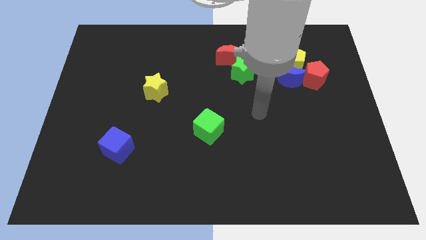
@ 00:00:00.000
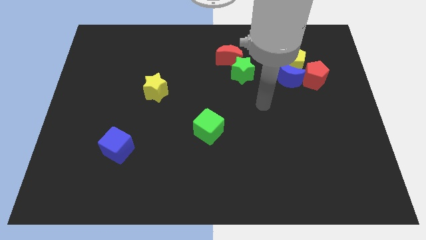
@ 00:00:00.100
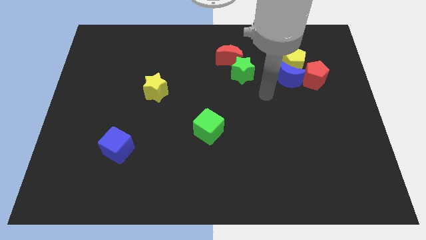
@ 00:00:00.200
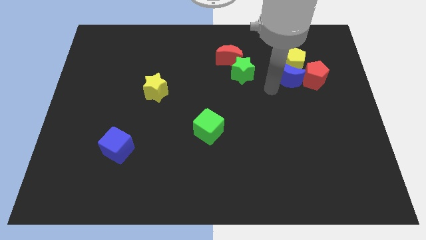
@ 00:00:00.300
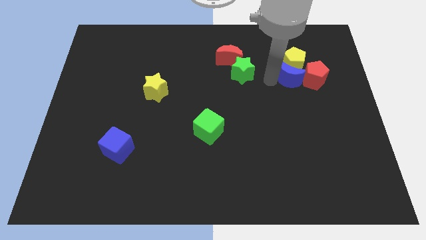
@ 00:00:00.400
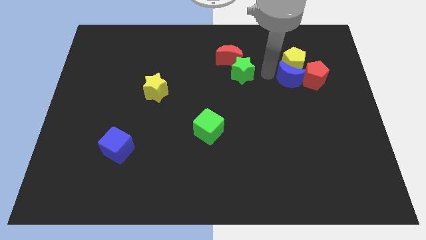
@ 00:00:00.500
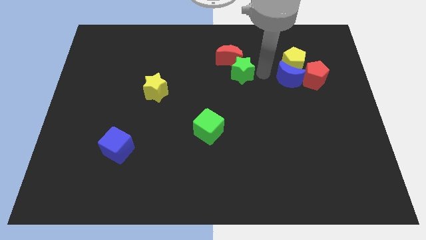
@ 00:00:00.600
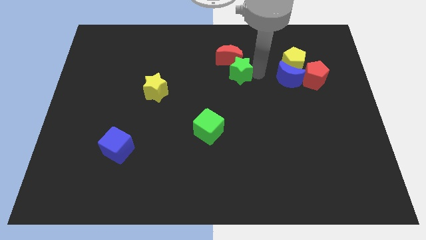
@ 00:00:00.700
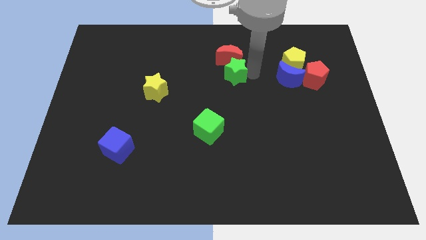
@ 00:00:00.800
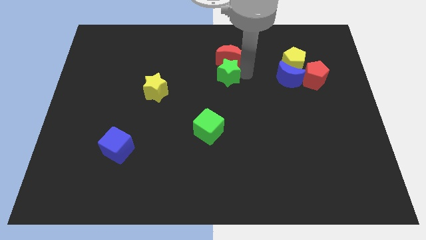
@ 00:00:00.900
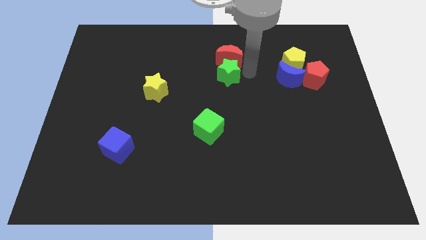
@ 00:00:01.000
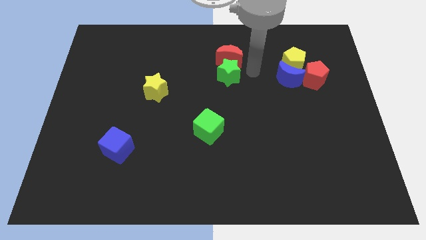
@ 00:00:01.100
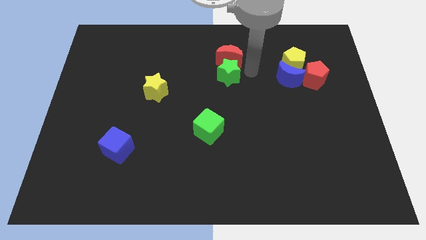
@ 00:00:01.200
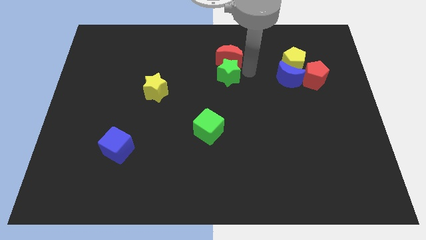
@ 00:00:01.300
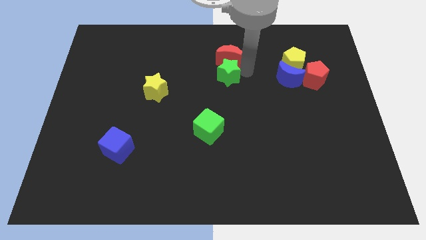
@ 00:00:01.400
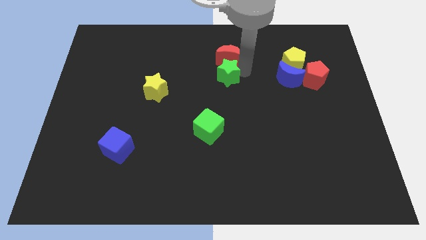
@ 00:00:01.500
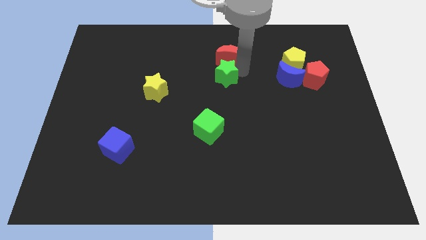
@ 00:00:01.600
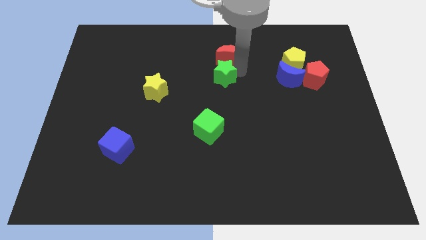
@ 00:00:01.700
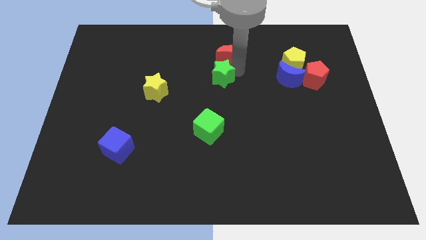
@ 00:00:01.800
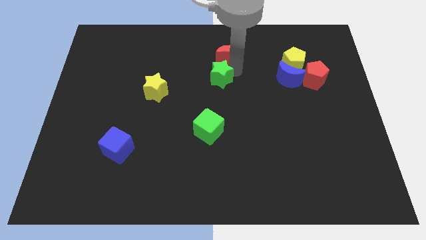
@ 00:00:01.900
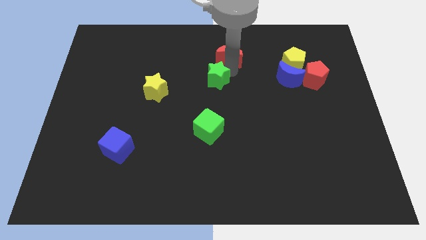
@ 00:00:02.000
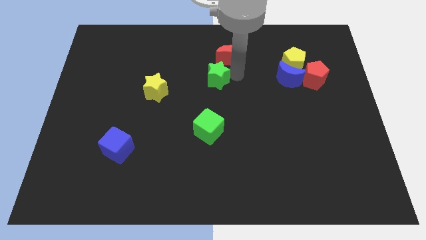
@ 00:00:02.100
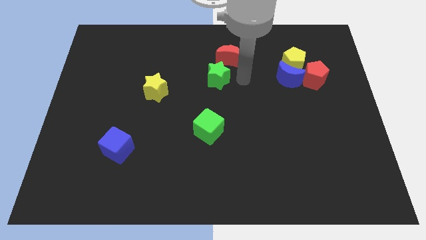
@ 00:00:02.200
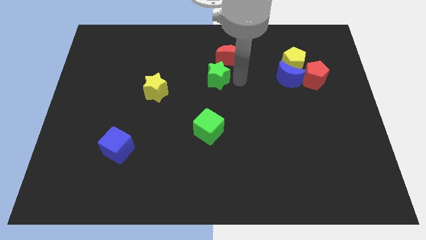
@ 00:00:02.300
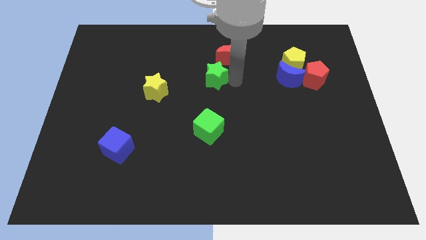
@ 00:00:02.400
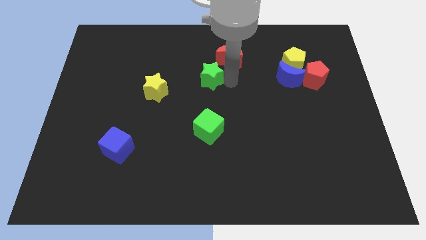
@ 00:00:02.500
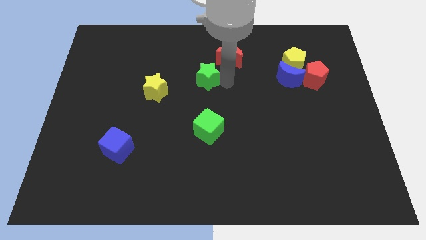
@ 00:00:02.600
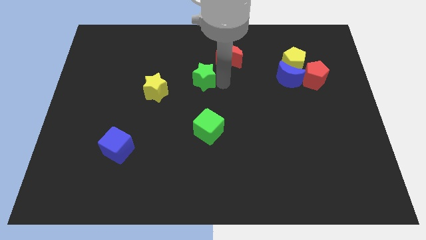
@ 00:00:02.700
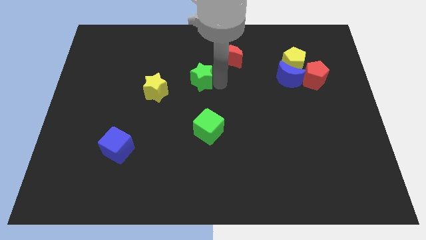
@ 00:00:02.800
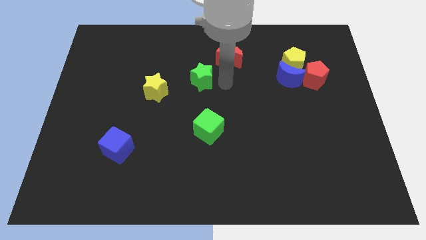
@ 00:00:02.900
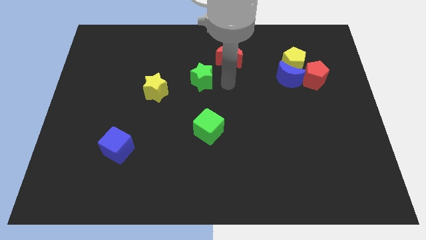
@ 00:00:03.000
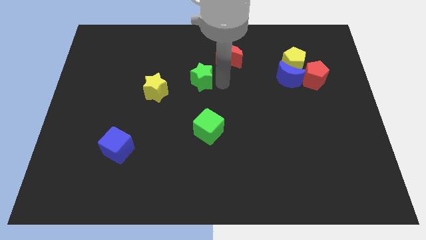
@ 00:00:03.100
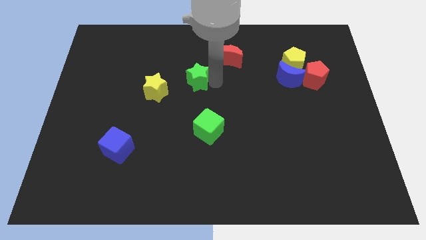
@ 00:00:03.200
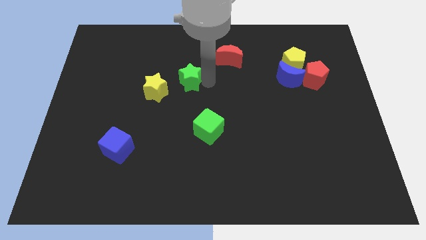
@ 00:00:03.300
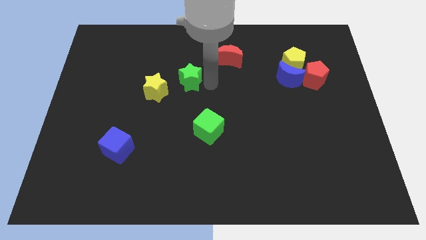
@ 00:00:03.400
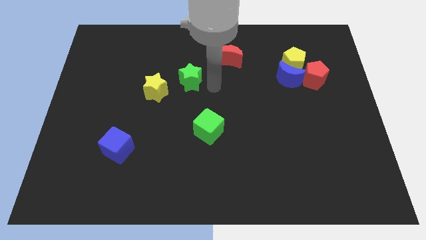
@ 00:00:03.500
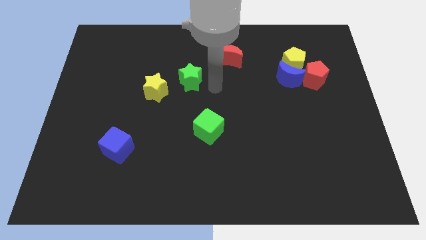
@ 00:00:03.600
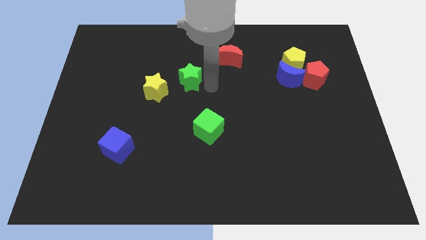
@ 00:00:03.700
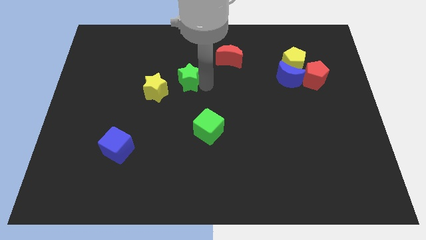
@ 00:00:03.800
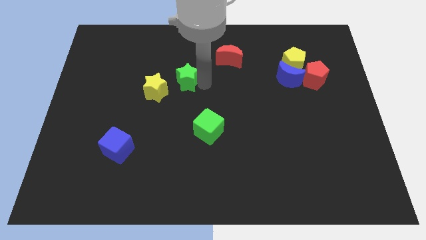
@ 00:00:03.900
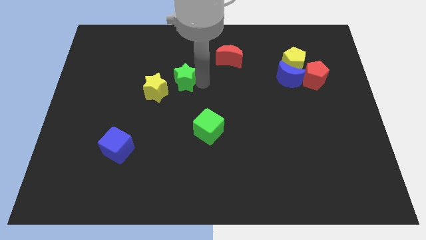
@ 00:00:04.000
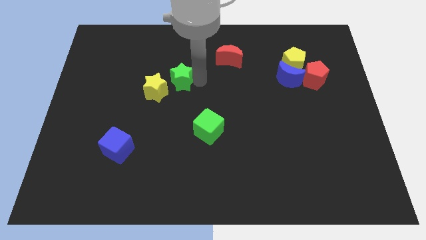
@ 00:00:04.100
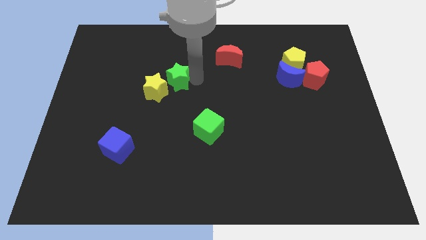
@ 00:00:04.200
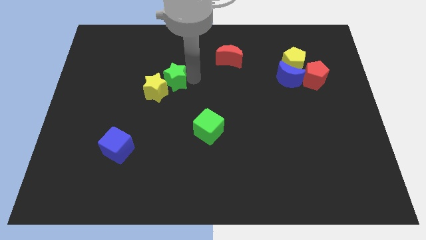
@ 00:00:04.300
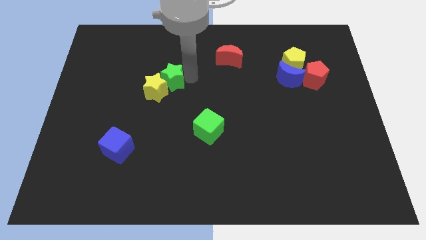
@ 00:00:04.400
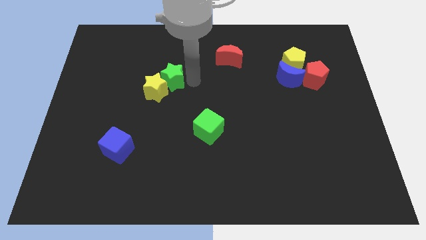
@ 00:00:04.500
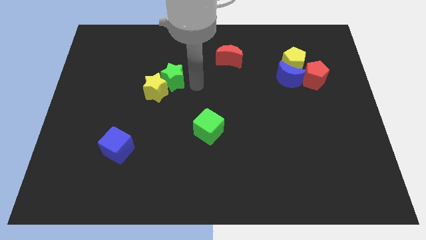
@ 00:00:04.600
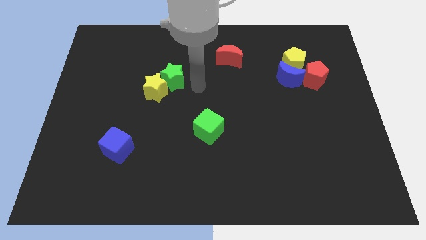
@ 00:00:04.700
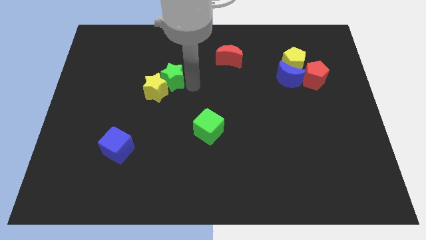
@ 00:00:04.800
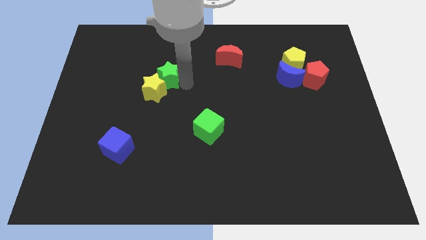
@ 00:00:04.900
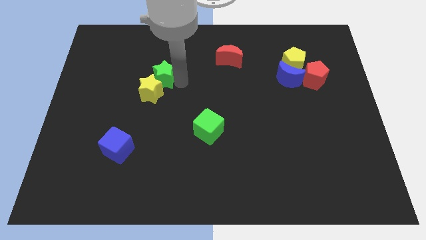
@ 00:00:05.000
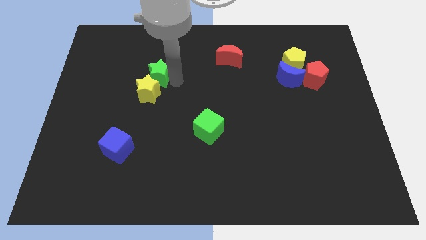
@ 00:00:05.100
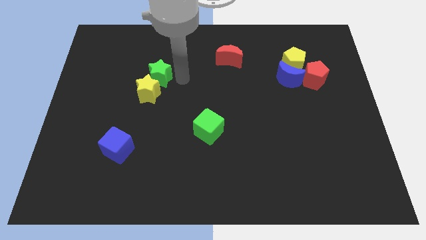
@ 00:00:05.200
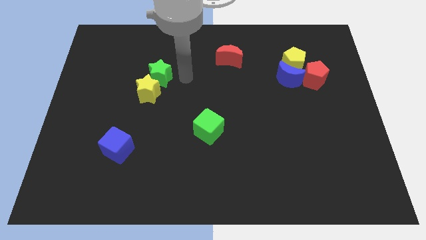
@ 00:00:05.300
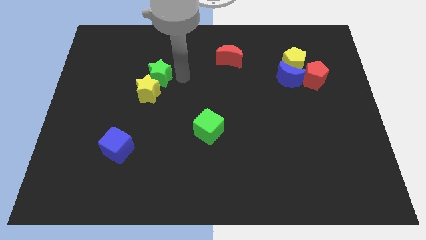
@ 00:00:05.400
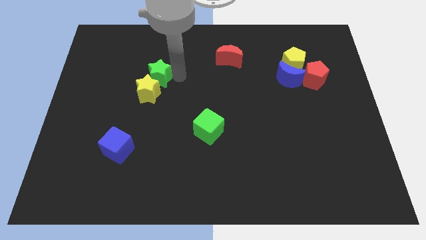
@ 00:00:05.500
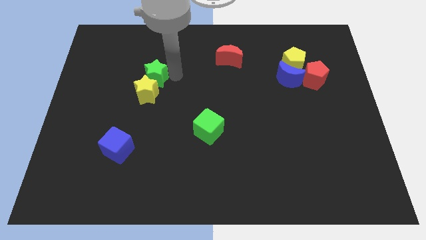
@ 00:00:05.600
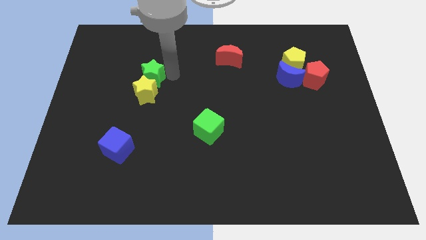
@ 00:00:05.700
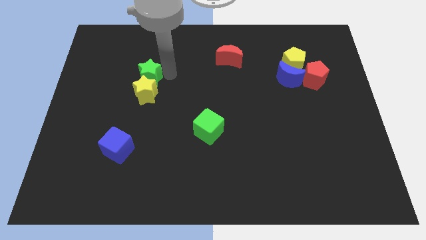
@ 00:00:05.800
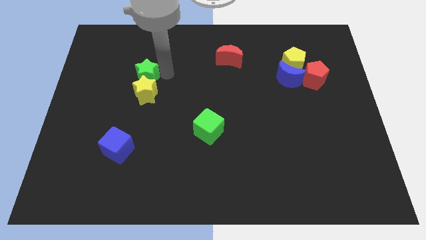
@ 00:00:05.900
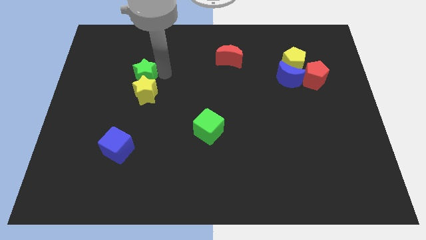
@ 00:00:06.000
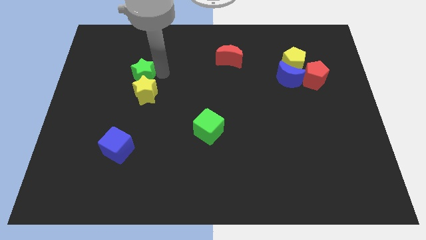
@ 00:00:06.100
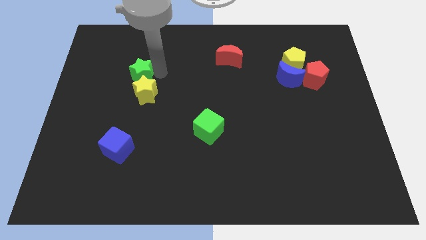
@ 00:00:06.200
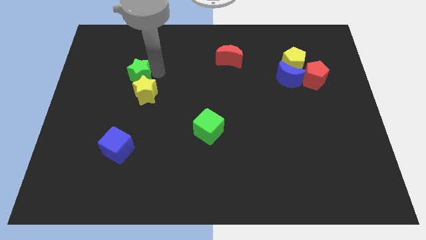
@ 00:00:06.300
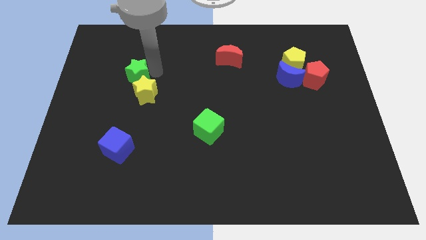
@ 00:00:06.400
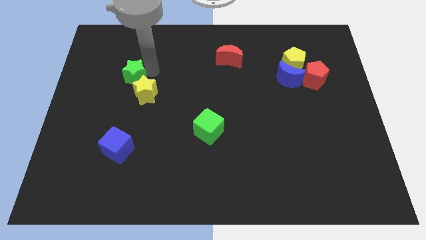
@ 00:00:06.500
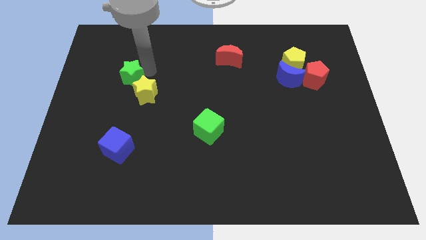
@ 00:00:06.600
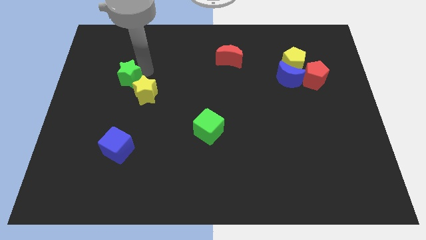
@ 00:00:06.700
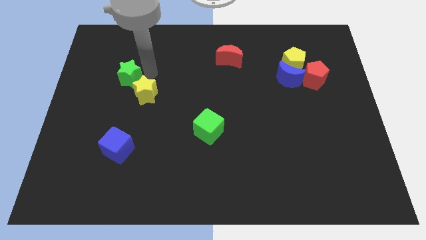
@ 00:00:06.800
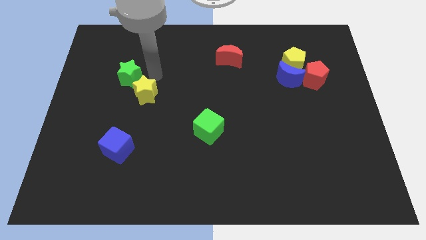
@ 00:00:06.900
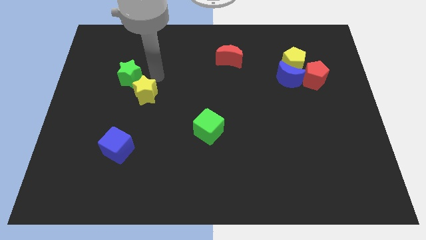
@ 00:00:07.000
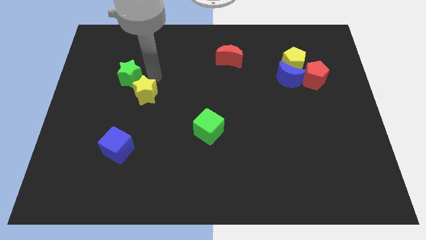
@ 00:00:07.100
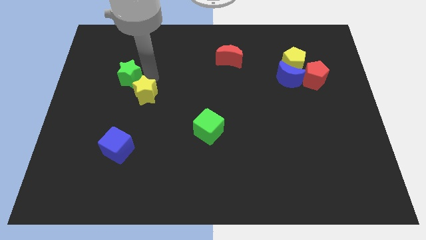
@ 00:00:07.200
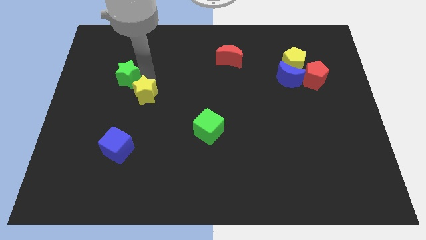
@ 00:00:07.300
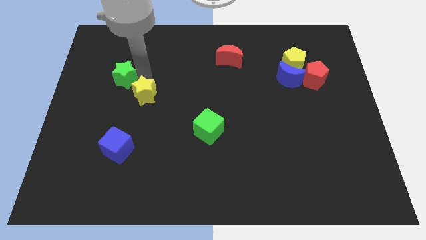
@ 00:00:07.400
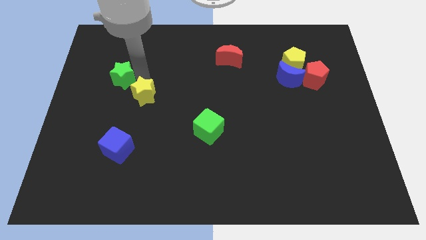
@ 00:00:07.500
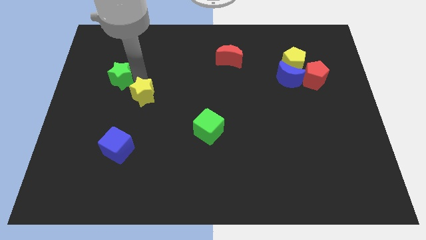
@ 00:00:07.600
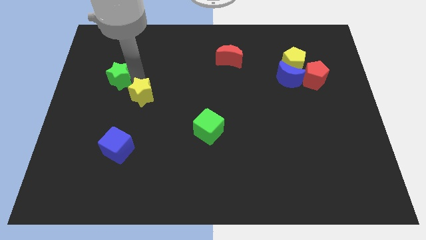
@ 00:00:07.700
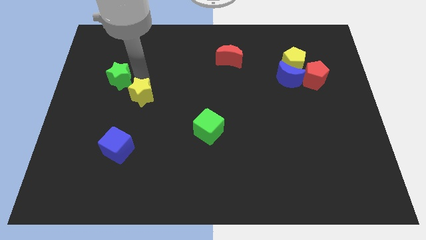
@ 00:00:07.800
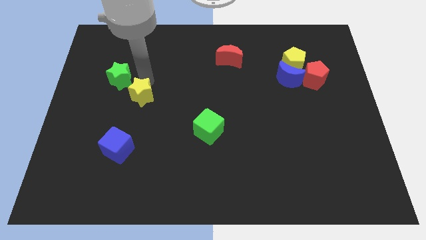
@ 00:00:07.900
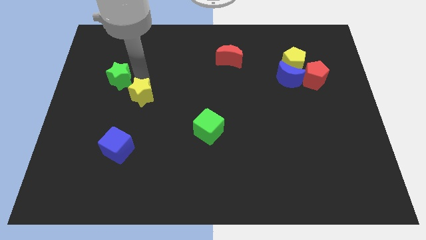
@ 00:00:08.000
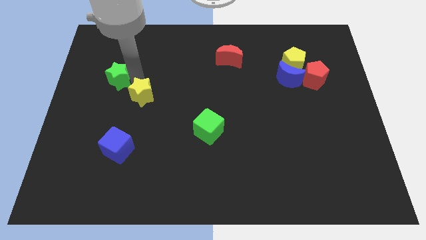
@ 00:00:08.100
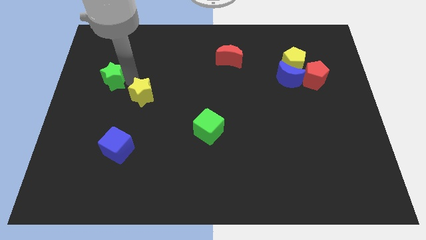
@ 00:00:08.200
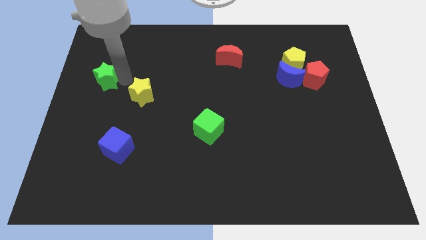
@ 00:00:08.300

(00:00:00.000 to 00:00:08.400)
slide the green star to the left side
